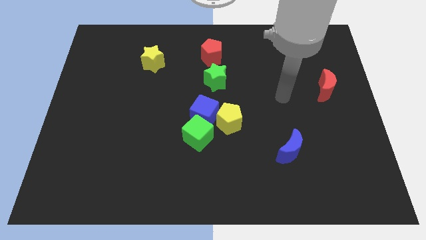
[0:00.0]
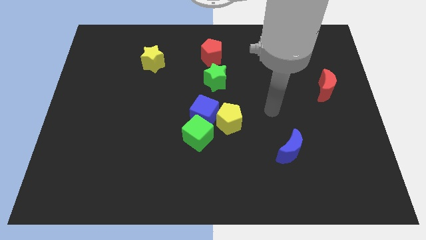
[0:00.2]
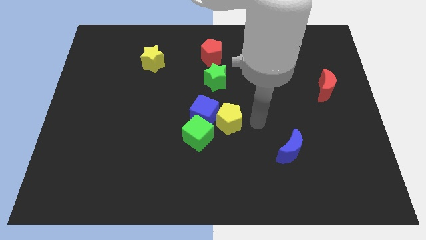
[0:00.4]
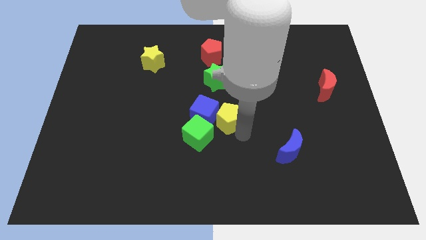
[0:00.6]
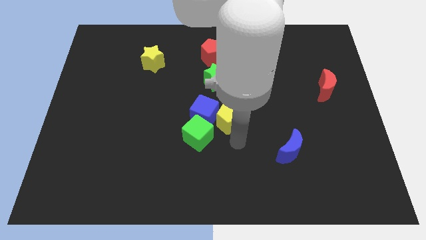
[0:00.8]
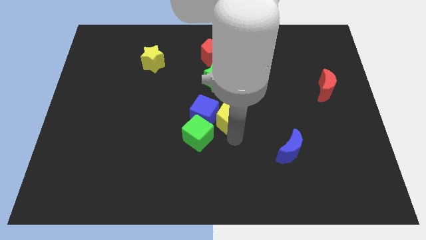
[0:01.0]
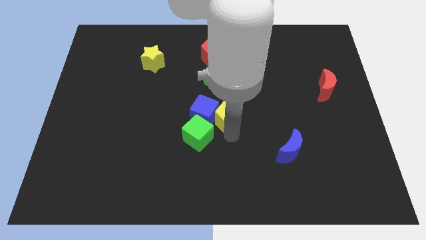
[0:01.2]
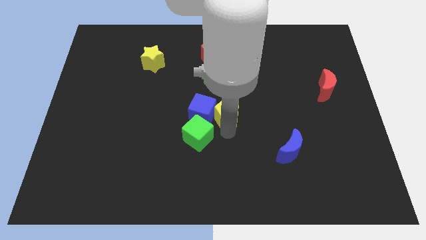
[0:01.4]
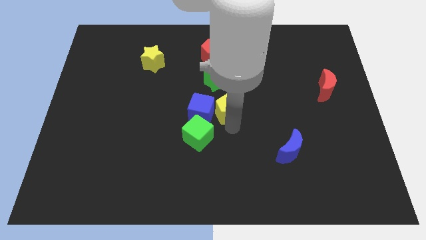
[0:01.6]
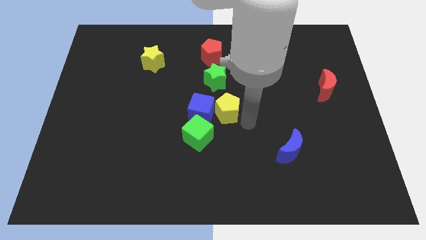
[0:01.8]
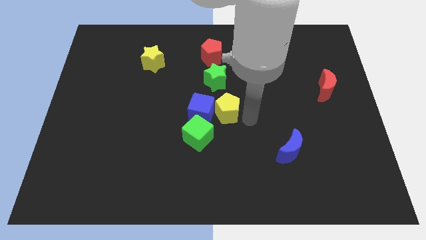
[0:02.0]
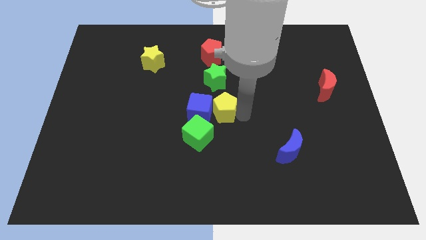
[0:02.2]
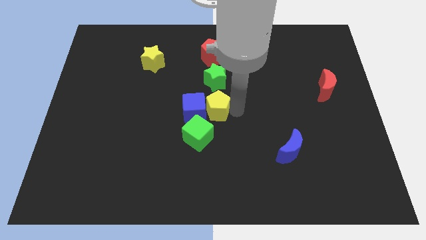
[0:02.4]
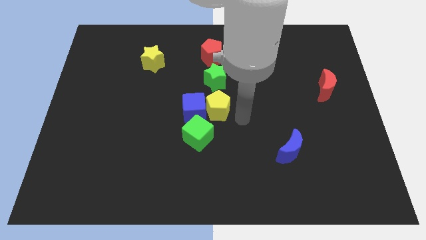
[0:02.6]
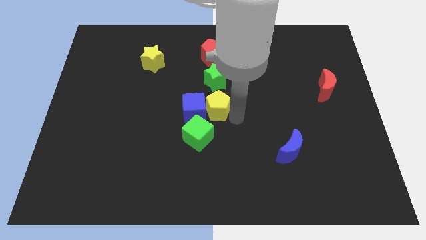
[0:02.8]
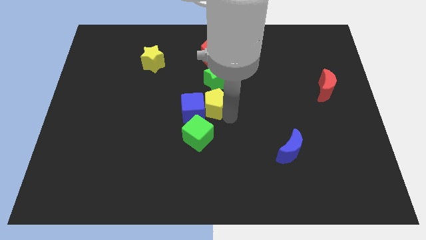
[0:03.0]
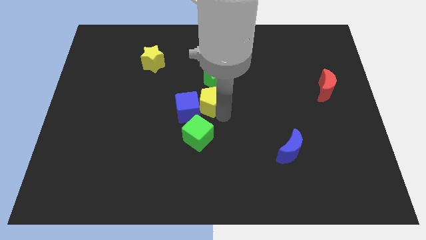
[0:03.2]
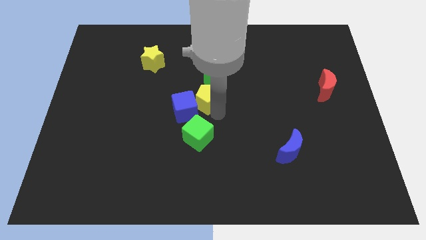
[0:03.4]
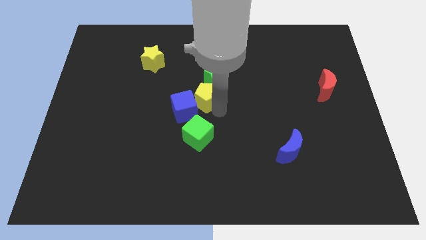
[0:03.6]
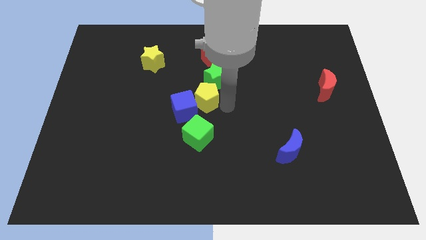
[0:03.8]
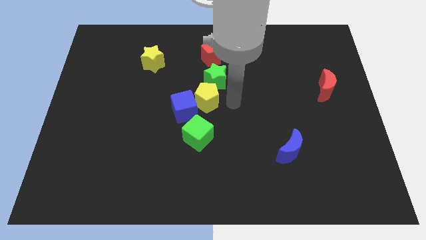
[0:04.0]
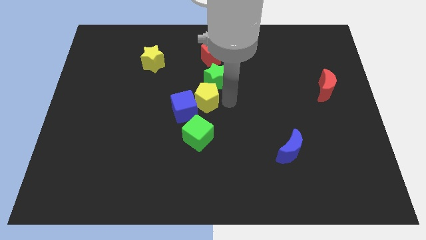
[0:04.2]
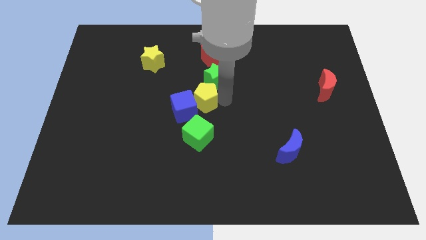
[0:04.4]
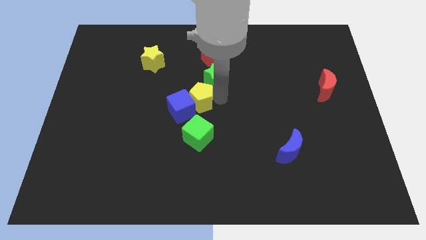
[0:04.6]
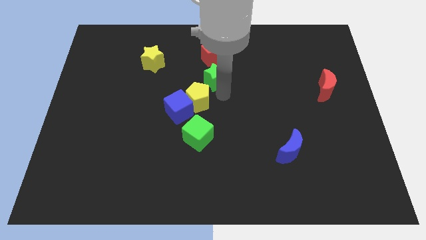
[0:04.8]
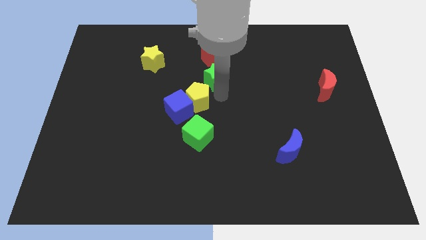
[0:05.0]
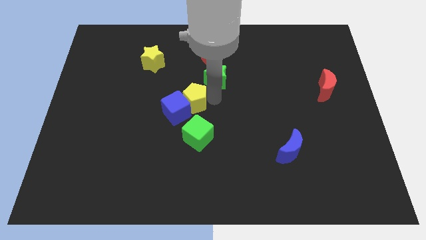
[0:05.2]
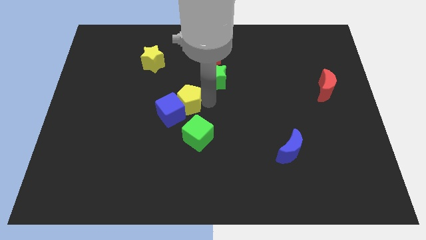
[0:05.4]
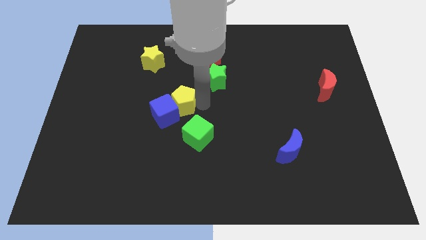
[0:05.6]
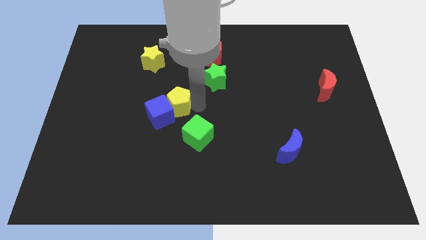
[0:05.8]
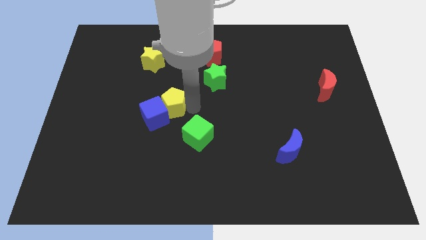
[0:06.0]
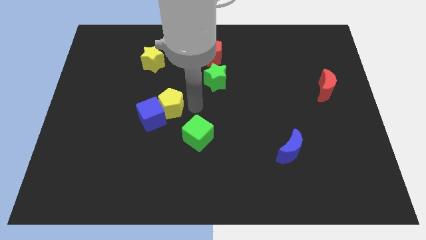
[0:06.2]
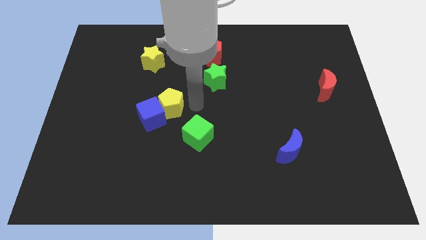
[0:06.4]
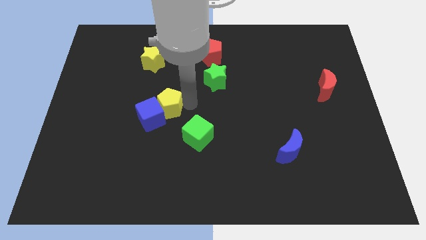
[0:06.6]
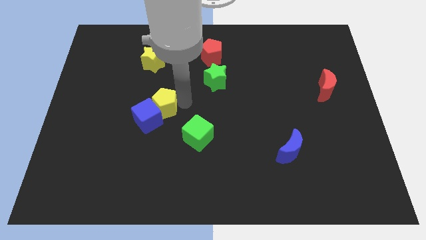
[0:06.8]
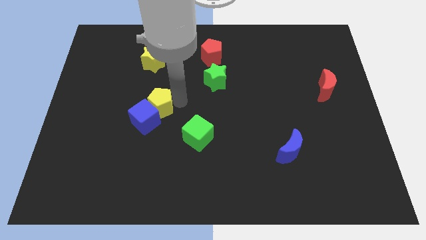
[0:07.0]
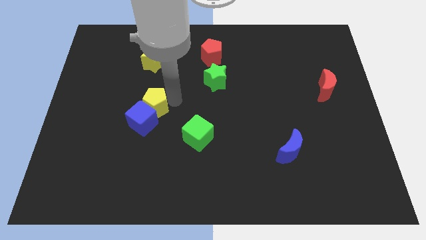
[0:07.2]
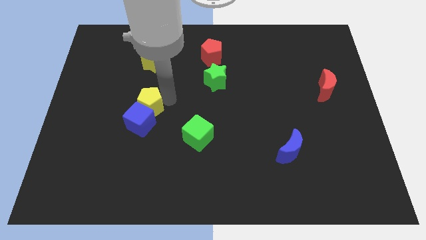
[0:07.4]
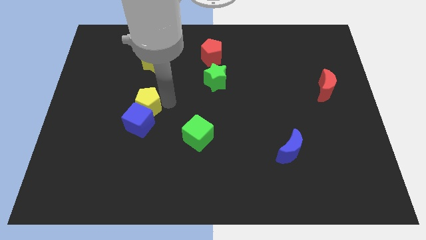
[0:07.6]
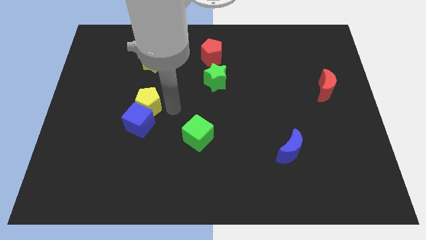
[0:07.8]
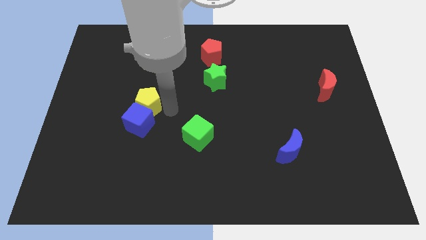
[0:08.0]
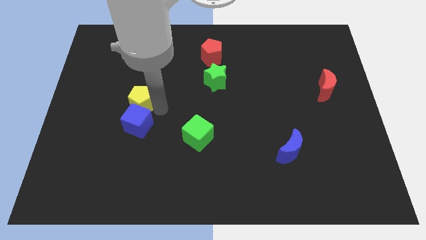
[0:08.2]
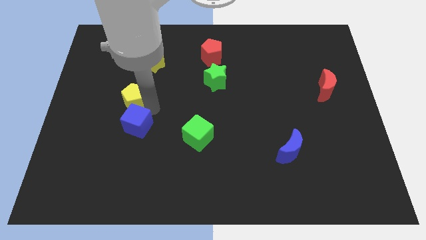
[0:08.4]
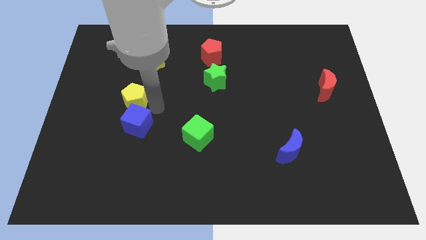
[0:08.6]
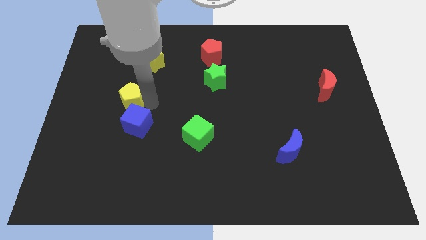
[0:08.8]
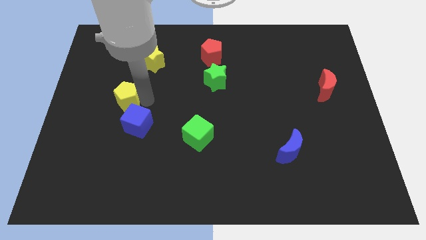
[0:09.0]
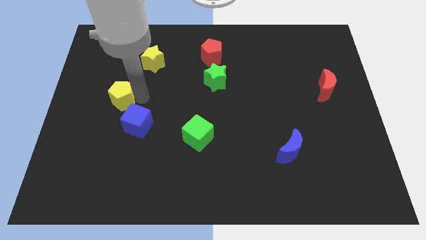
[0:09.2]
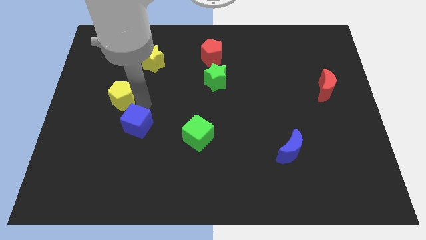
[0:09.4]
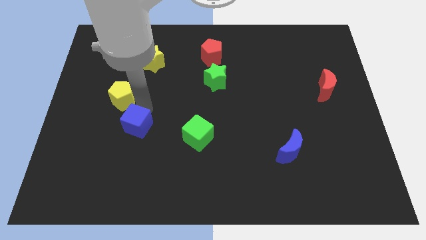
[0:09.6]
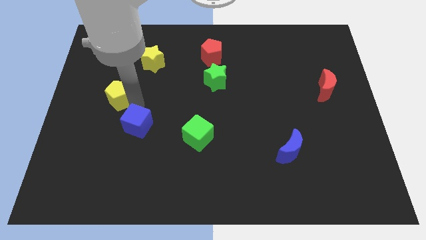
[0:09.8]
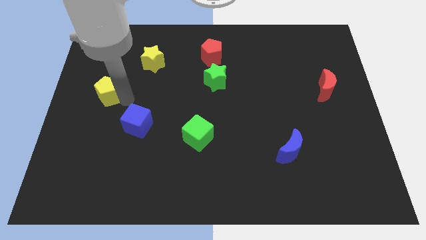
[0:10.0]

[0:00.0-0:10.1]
push the yellow pentagon to the center left

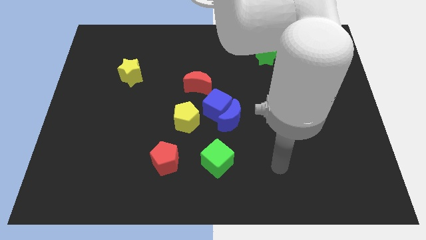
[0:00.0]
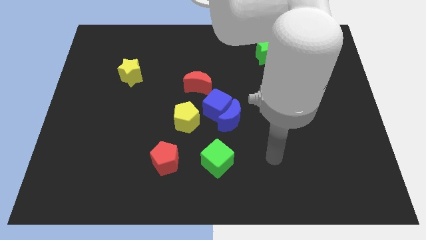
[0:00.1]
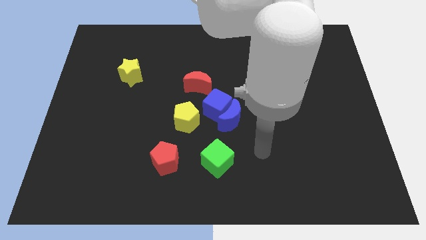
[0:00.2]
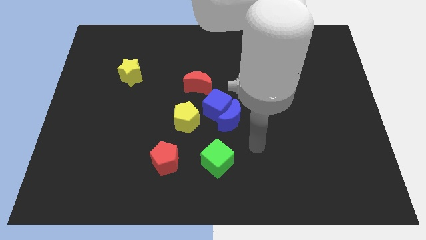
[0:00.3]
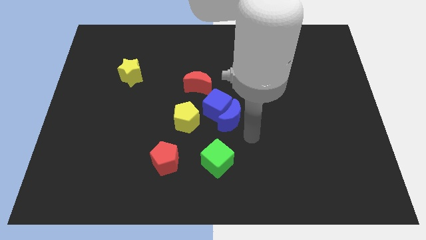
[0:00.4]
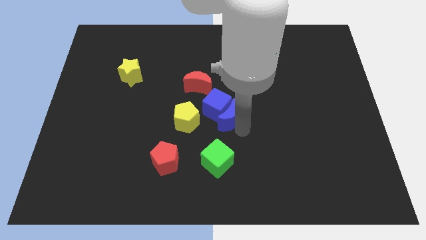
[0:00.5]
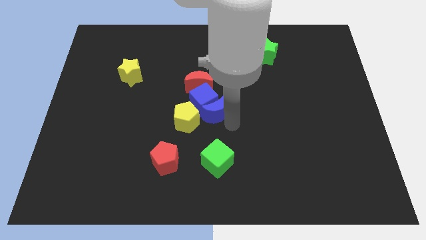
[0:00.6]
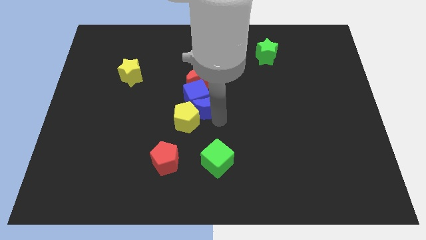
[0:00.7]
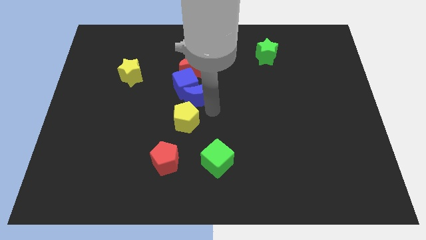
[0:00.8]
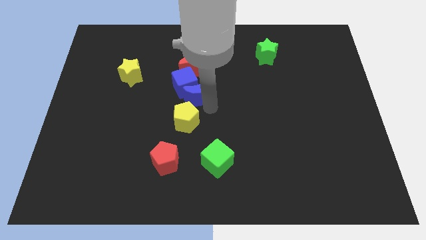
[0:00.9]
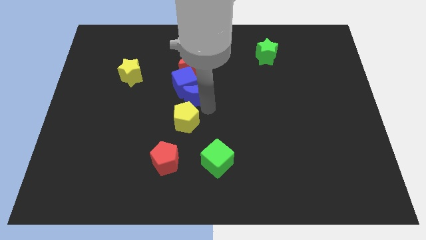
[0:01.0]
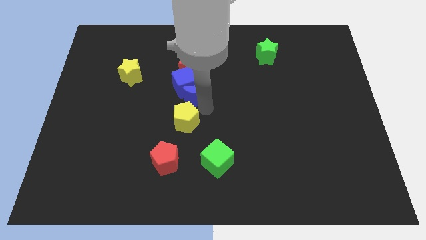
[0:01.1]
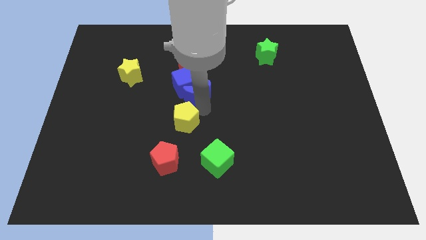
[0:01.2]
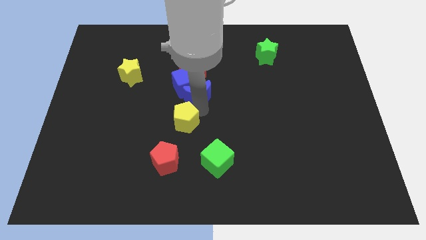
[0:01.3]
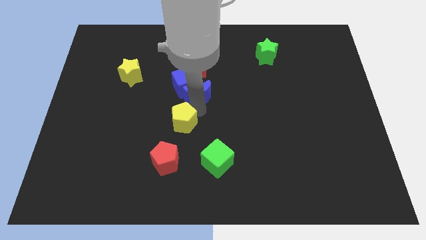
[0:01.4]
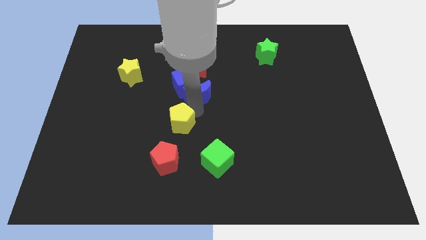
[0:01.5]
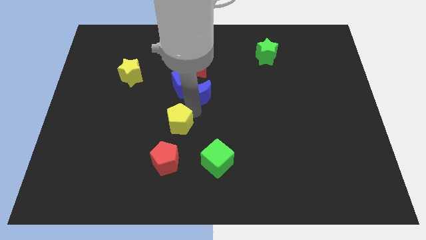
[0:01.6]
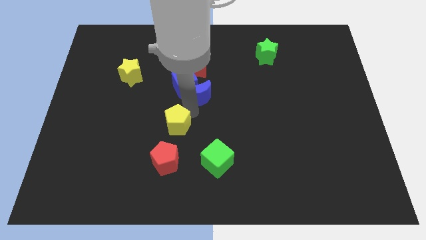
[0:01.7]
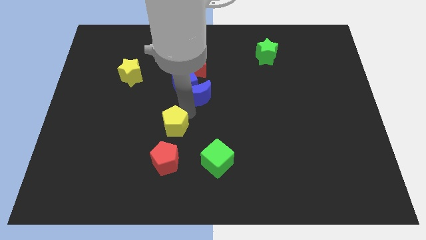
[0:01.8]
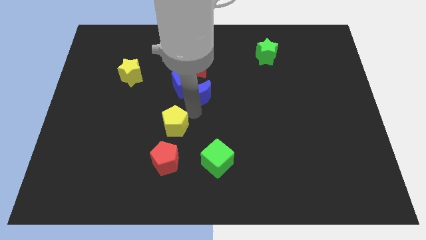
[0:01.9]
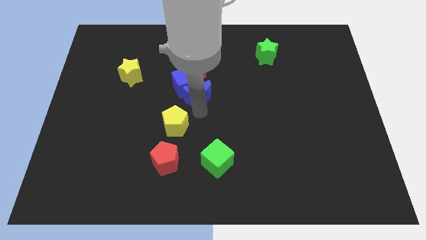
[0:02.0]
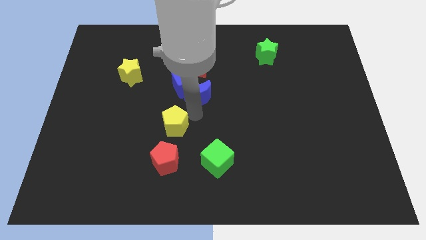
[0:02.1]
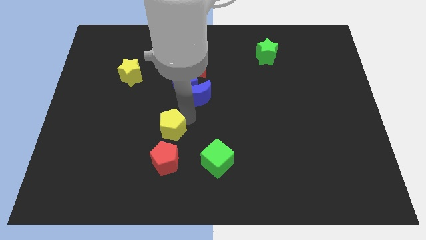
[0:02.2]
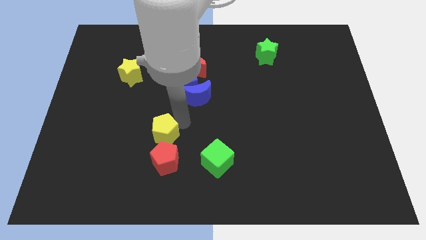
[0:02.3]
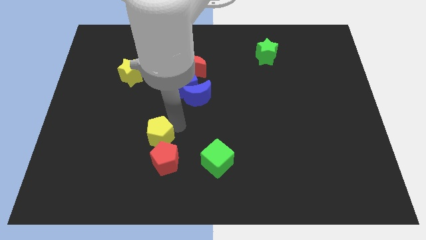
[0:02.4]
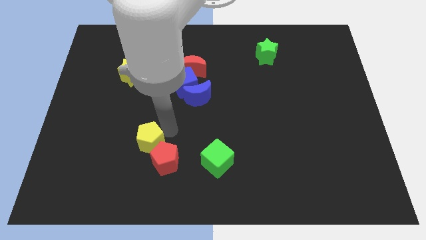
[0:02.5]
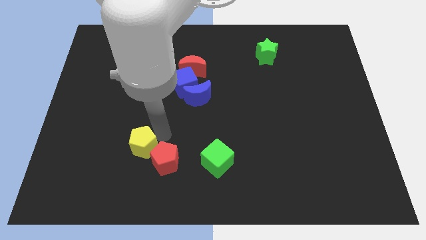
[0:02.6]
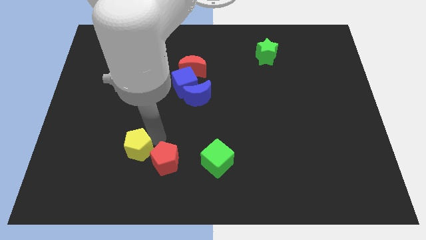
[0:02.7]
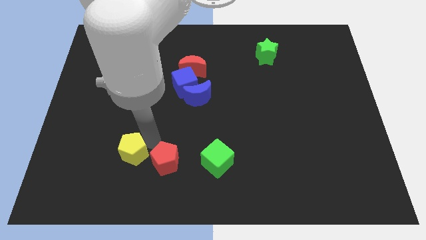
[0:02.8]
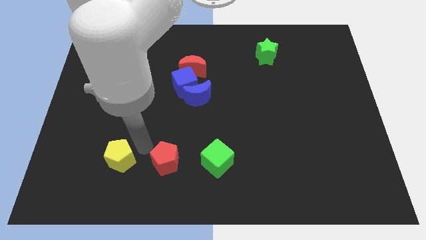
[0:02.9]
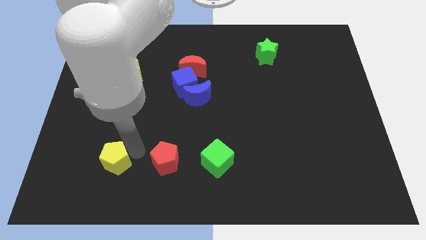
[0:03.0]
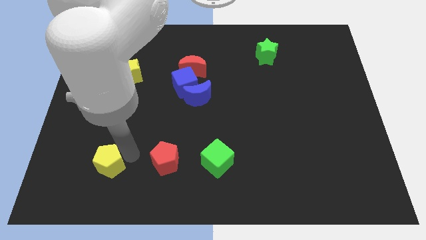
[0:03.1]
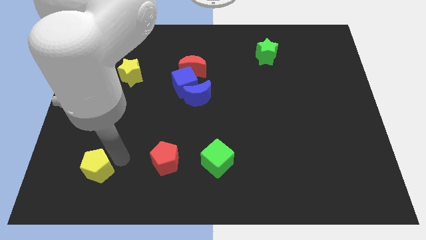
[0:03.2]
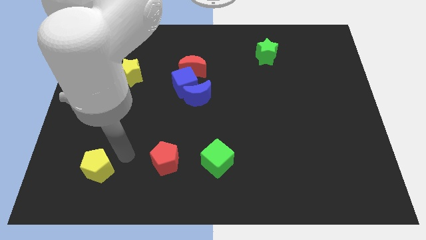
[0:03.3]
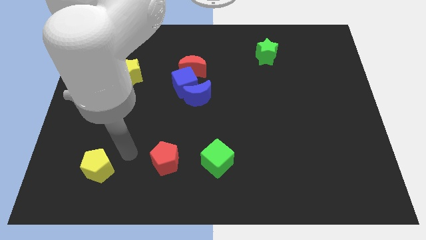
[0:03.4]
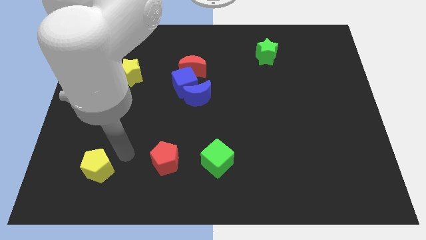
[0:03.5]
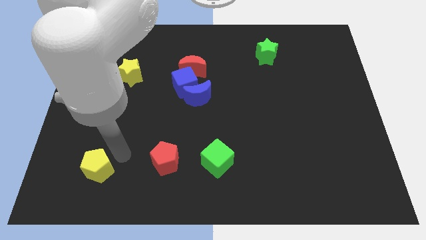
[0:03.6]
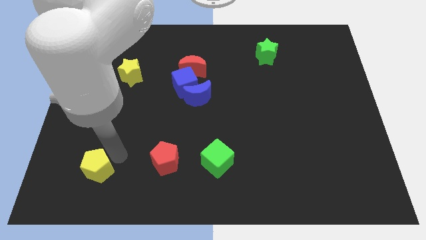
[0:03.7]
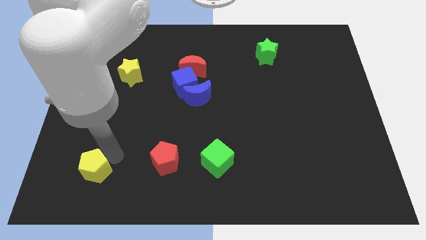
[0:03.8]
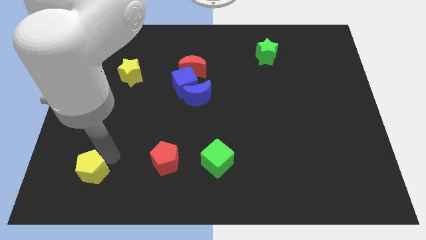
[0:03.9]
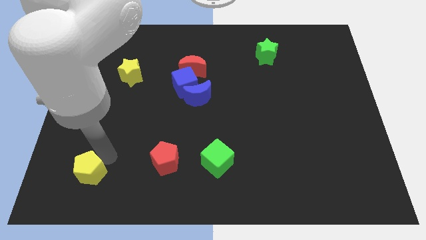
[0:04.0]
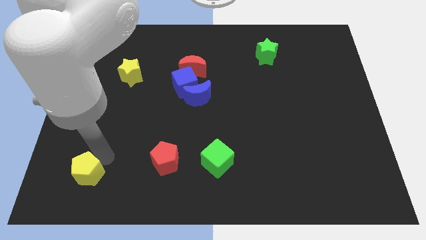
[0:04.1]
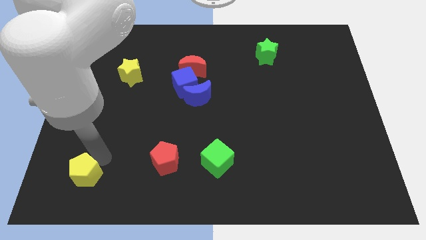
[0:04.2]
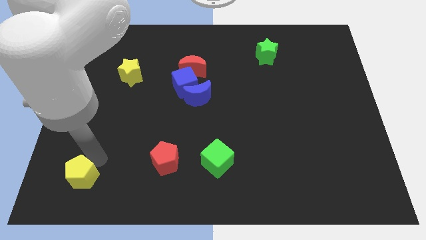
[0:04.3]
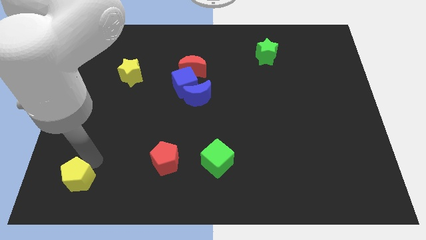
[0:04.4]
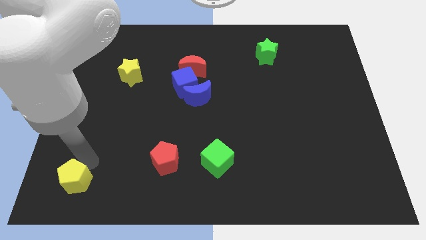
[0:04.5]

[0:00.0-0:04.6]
put the yellow pentagon to the lower left corner
